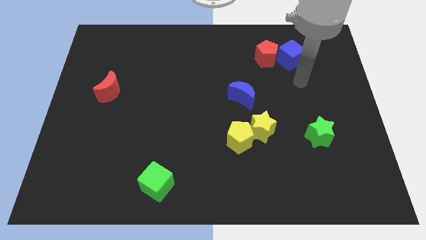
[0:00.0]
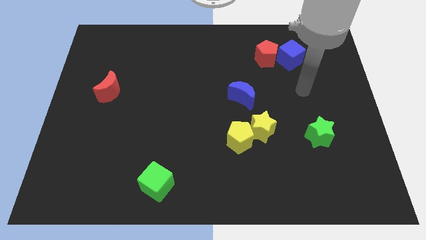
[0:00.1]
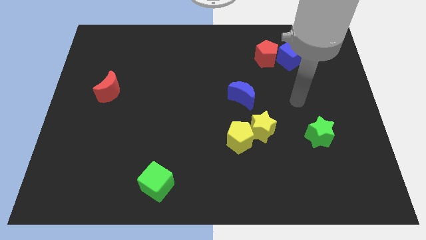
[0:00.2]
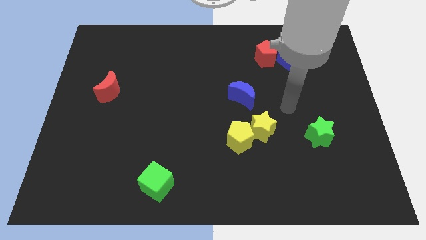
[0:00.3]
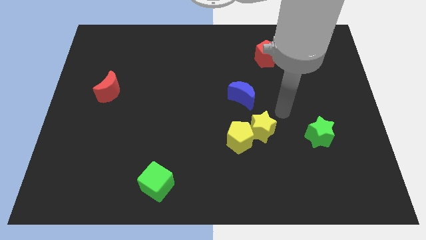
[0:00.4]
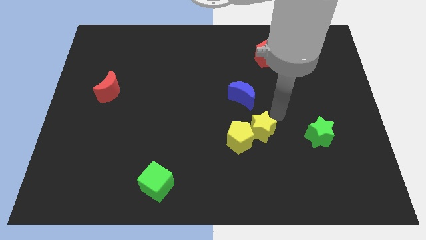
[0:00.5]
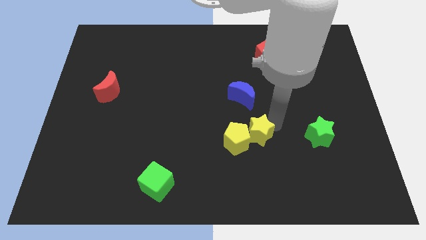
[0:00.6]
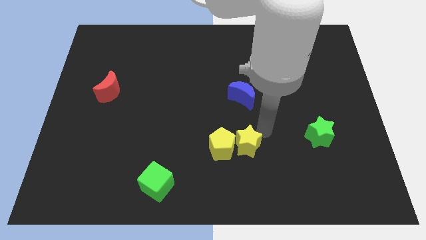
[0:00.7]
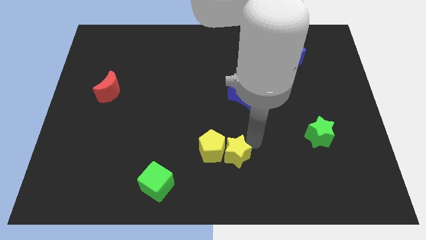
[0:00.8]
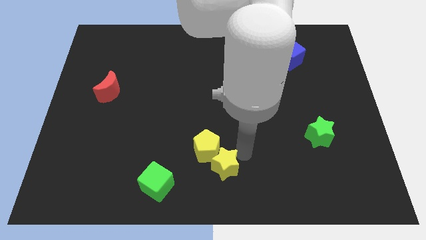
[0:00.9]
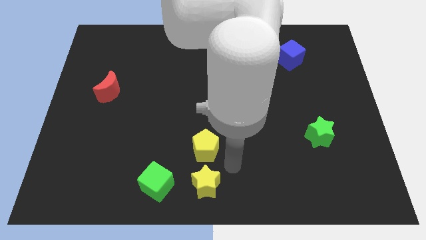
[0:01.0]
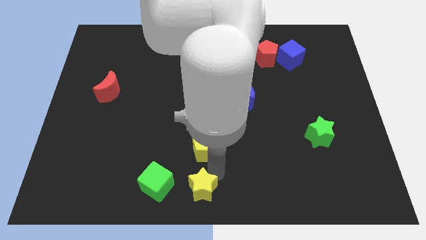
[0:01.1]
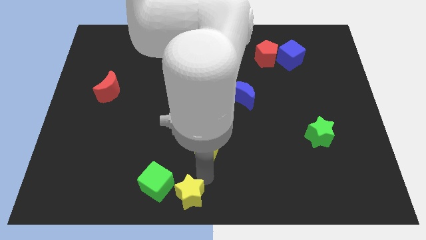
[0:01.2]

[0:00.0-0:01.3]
move the yellow pentagon away from the yellow star

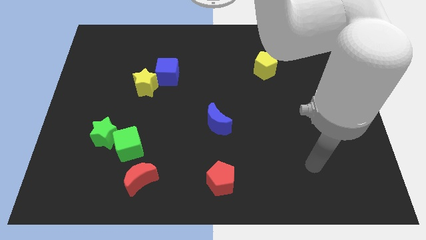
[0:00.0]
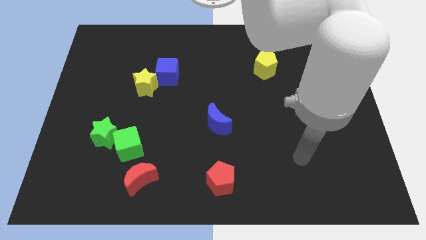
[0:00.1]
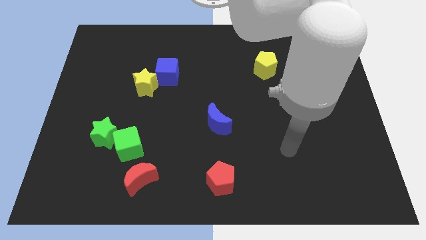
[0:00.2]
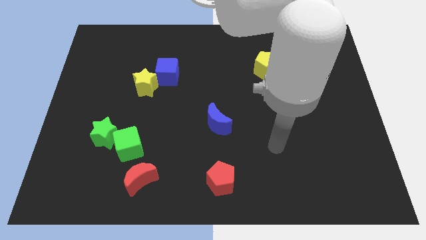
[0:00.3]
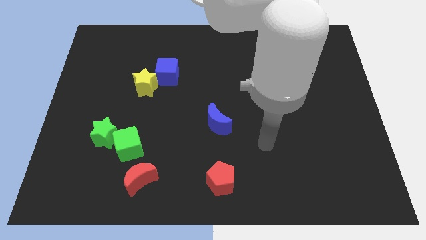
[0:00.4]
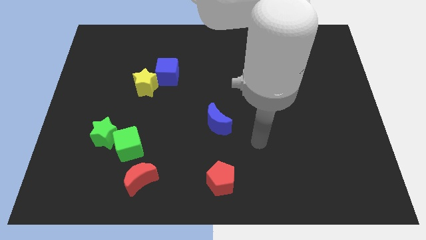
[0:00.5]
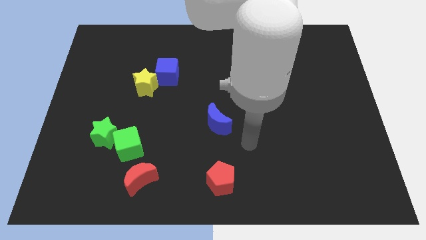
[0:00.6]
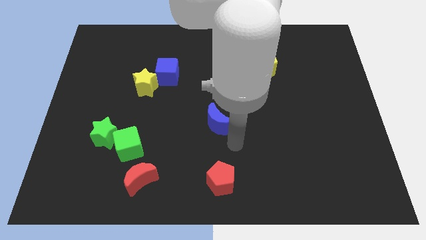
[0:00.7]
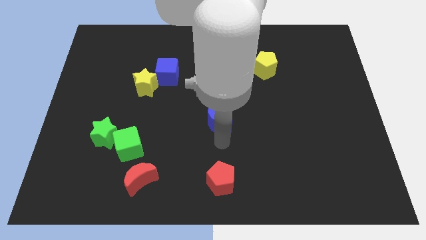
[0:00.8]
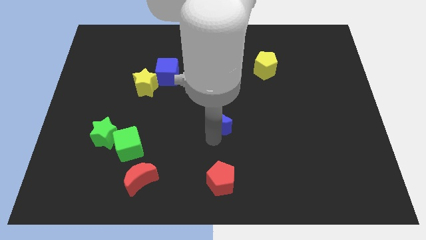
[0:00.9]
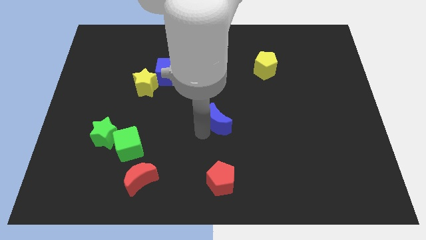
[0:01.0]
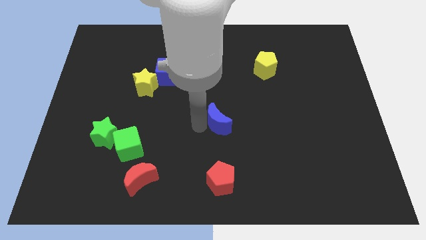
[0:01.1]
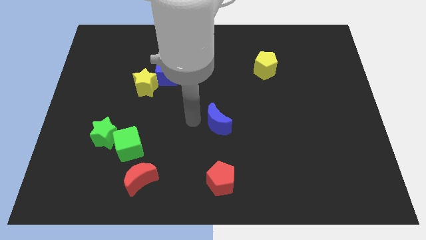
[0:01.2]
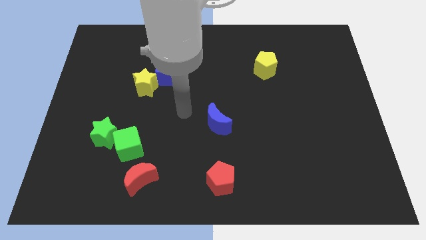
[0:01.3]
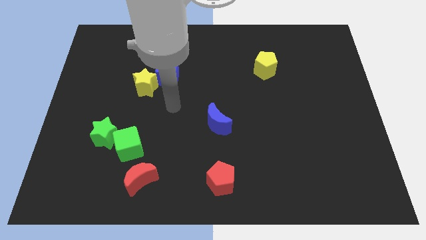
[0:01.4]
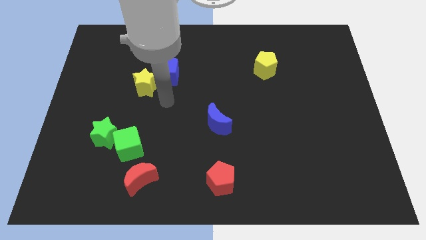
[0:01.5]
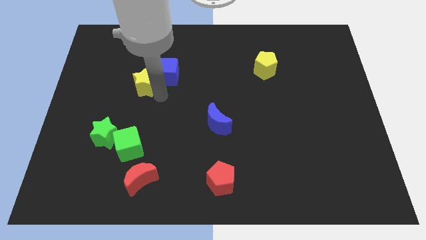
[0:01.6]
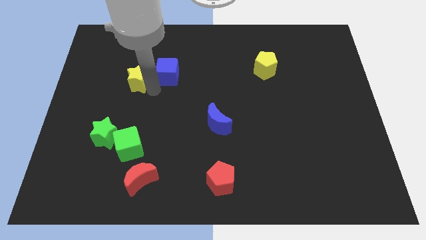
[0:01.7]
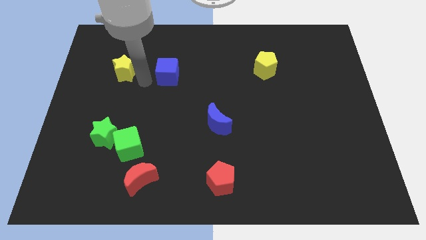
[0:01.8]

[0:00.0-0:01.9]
pull the blue cube apart from the yellow star

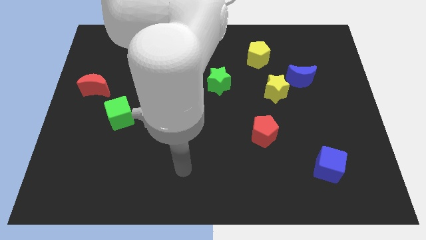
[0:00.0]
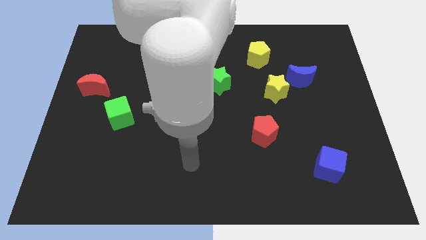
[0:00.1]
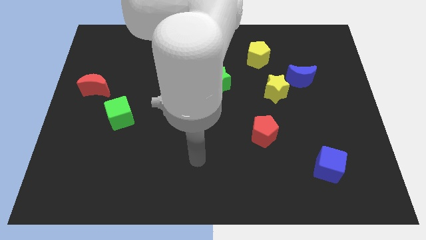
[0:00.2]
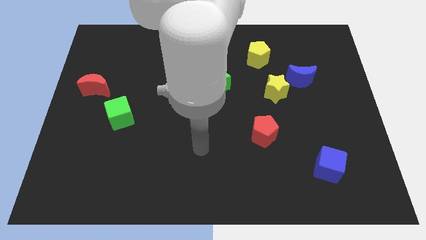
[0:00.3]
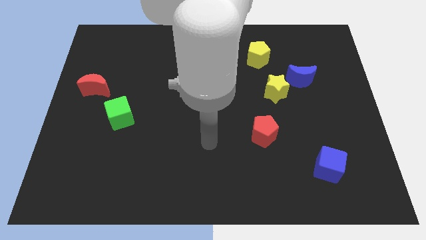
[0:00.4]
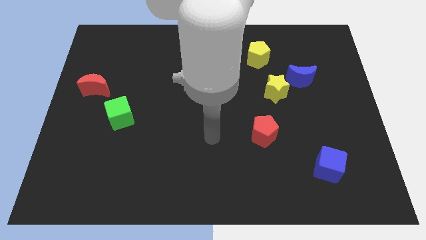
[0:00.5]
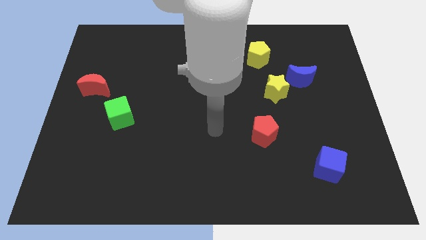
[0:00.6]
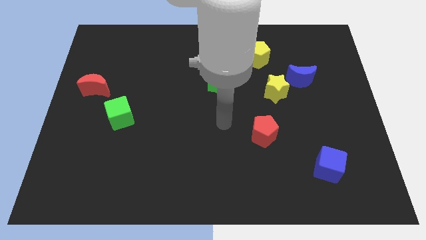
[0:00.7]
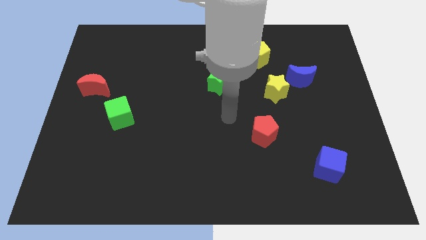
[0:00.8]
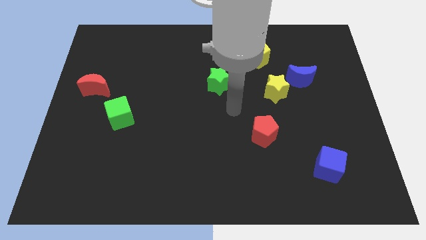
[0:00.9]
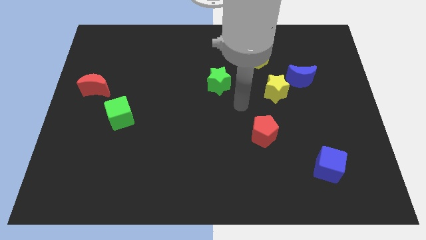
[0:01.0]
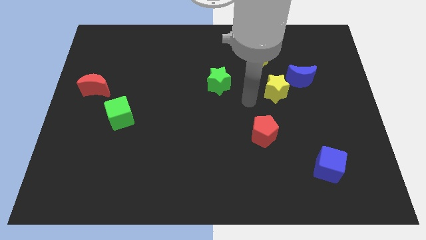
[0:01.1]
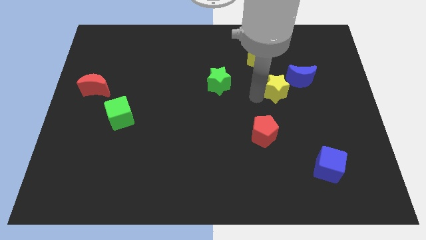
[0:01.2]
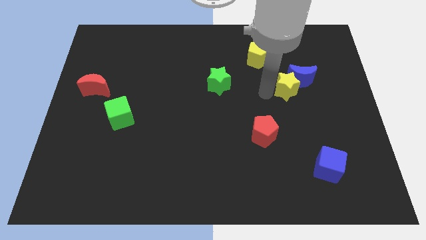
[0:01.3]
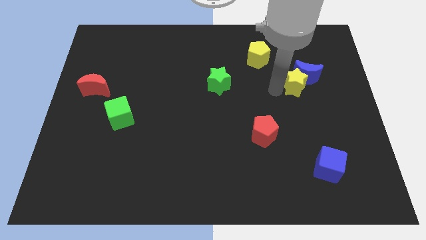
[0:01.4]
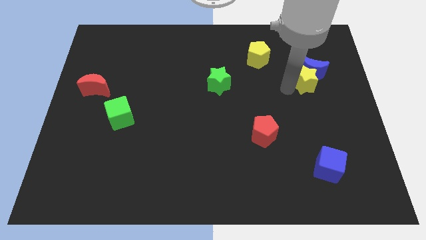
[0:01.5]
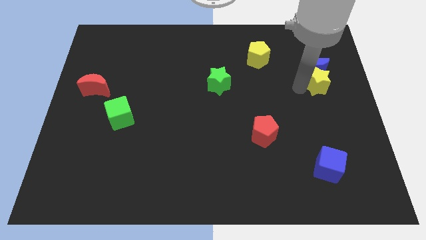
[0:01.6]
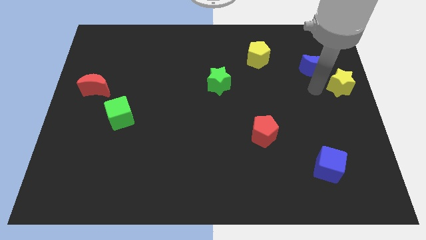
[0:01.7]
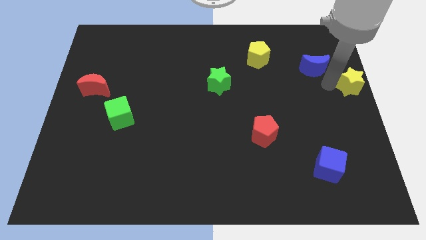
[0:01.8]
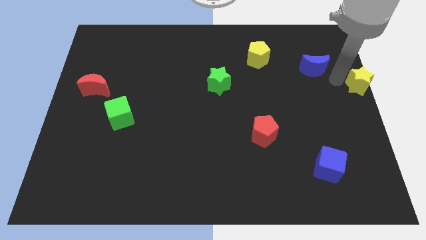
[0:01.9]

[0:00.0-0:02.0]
move the blue moon away from the yellow star

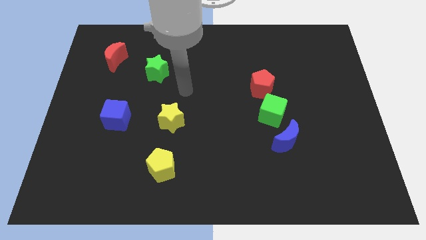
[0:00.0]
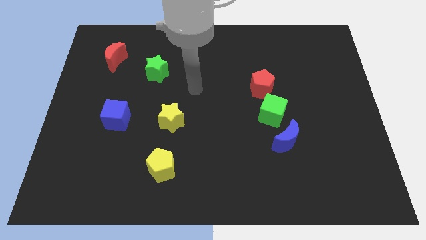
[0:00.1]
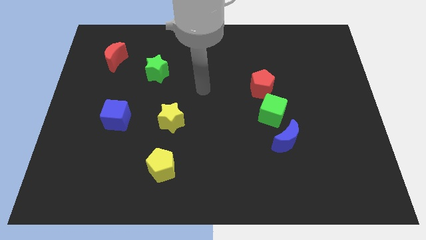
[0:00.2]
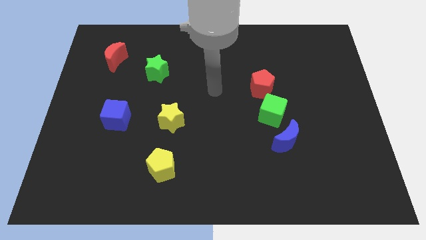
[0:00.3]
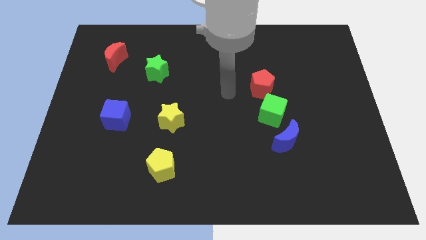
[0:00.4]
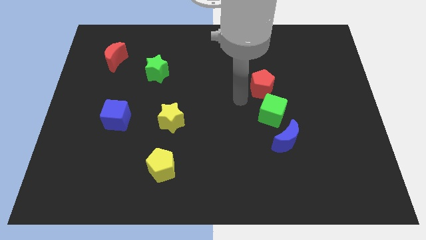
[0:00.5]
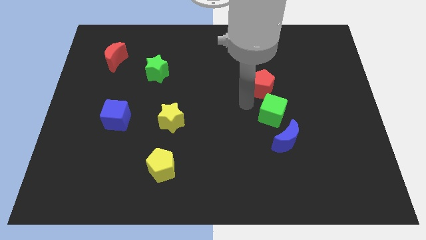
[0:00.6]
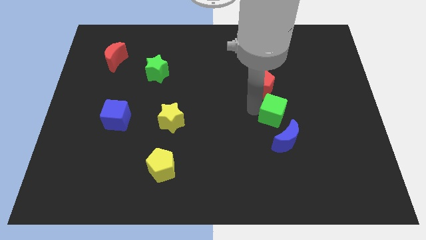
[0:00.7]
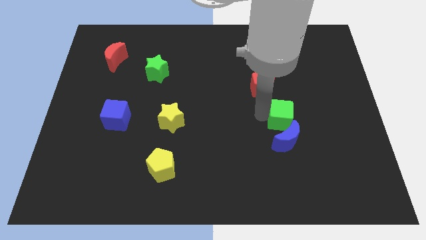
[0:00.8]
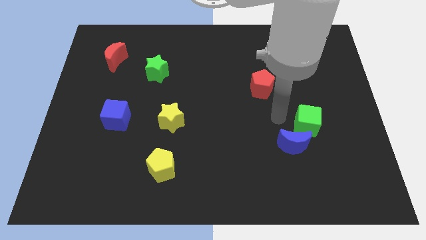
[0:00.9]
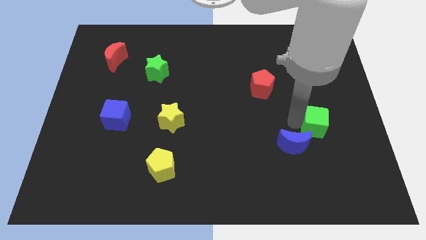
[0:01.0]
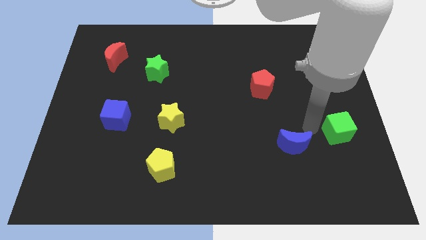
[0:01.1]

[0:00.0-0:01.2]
separate the blue moon from the green cube

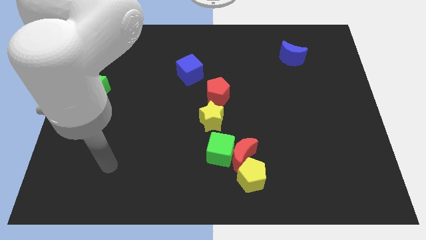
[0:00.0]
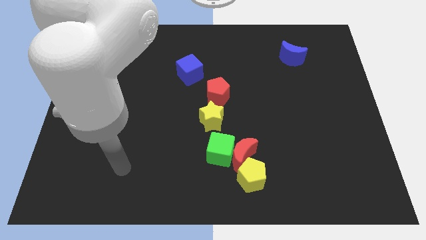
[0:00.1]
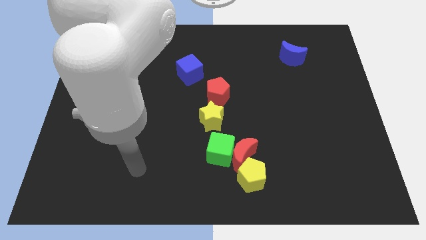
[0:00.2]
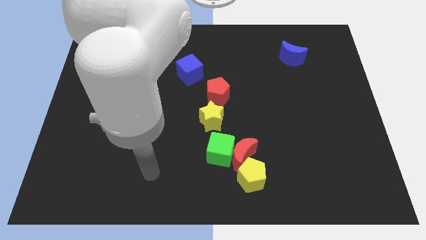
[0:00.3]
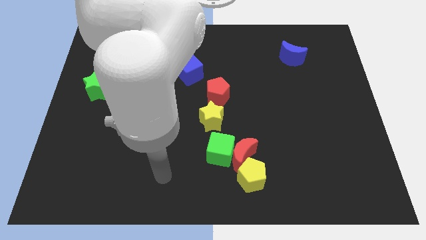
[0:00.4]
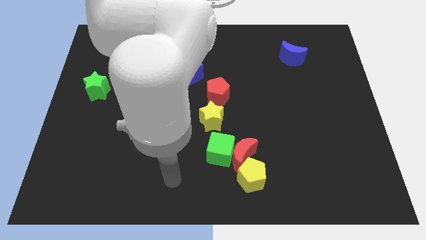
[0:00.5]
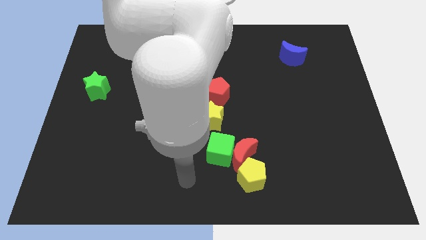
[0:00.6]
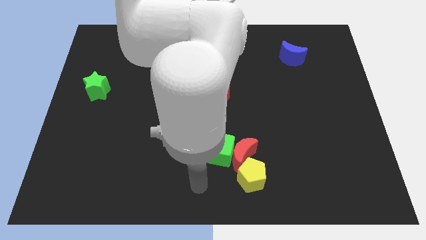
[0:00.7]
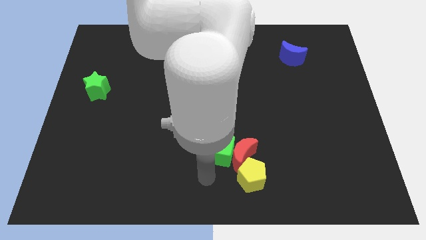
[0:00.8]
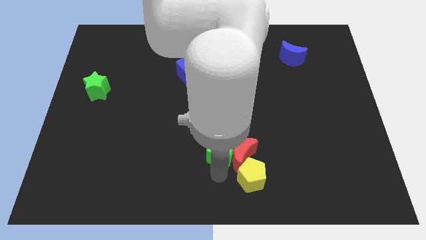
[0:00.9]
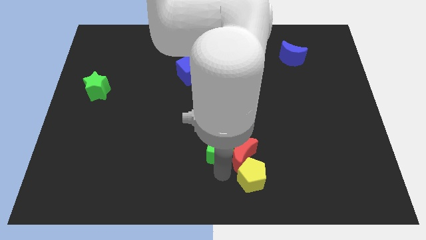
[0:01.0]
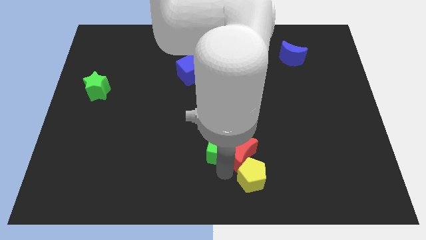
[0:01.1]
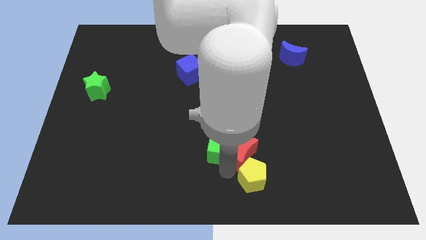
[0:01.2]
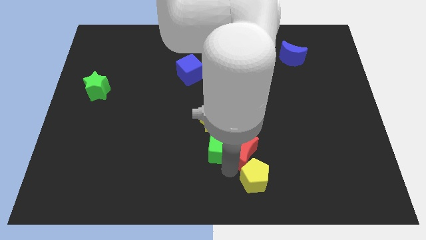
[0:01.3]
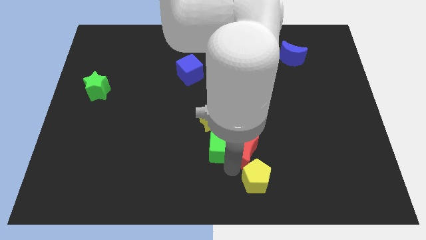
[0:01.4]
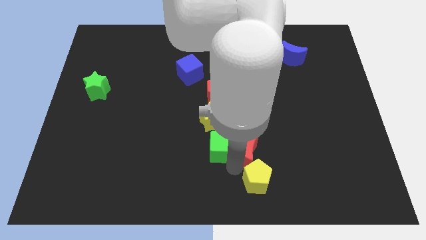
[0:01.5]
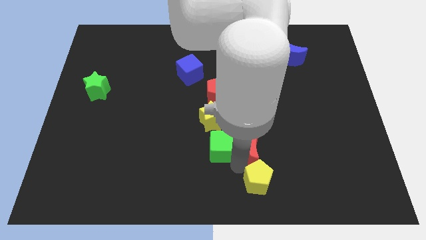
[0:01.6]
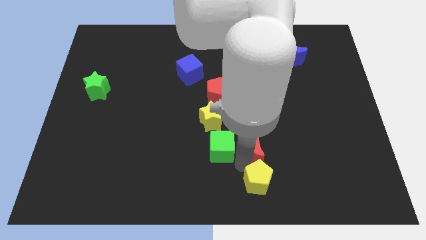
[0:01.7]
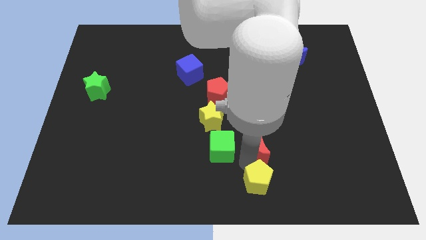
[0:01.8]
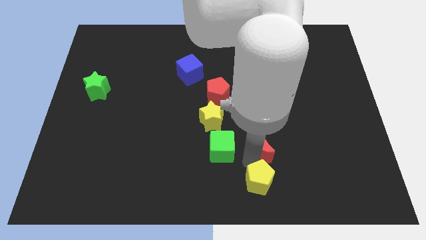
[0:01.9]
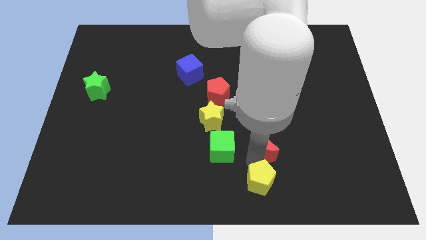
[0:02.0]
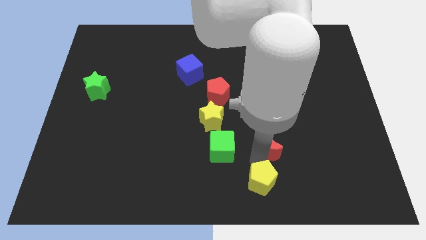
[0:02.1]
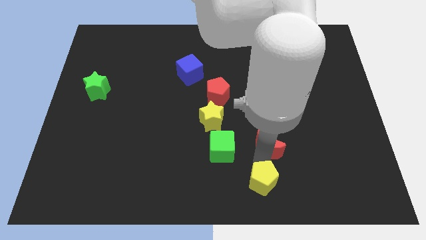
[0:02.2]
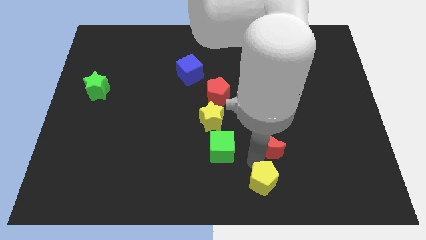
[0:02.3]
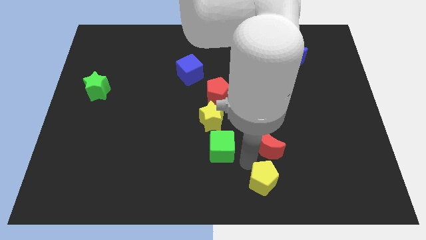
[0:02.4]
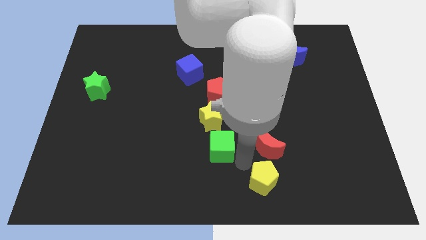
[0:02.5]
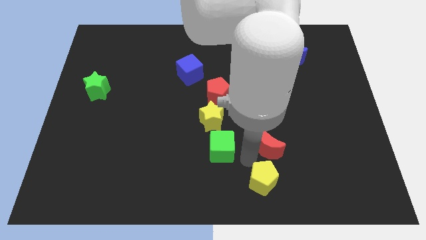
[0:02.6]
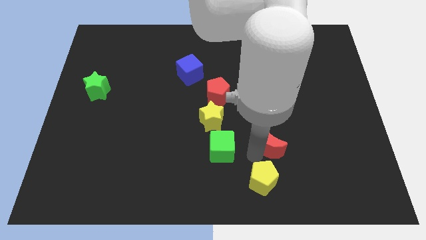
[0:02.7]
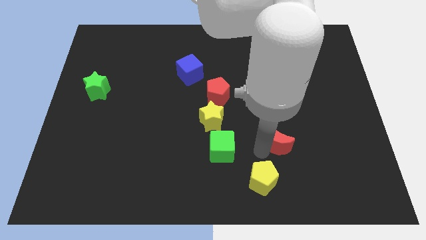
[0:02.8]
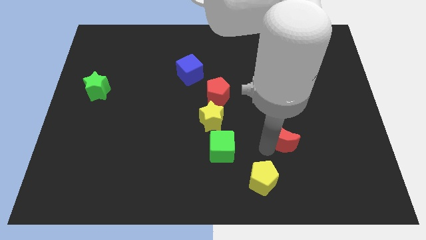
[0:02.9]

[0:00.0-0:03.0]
separate the red moon from the green cube and yellow pentagon
